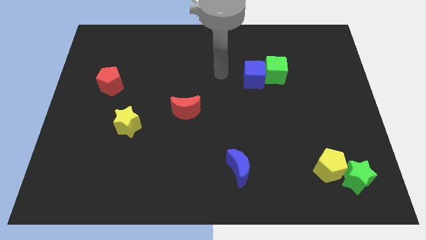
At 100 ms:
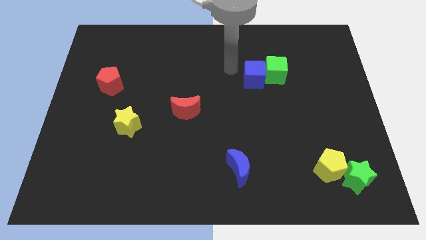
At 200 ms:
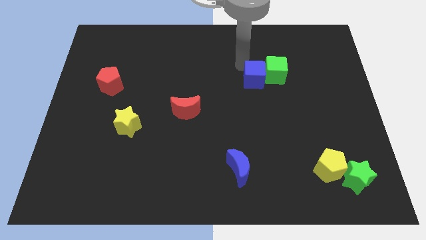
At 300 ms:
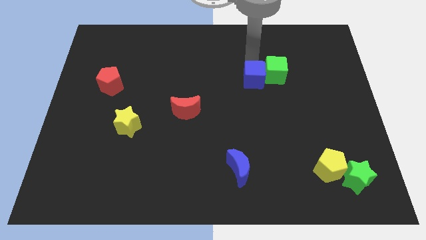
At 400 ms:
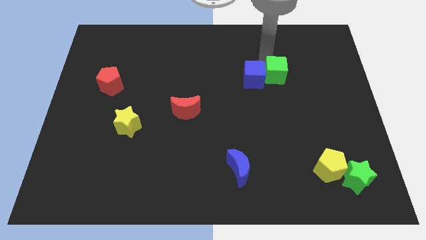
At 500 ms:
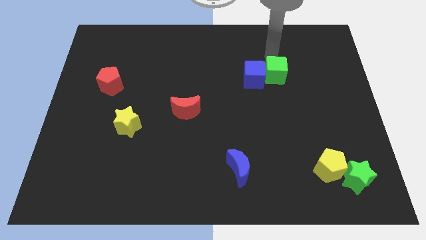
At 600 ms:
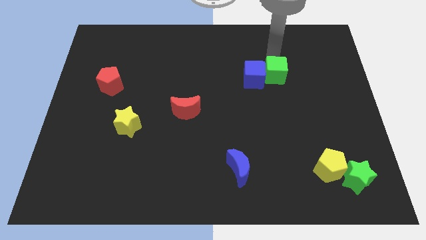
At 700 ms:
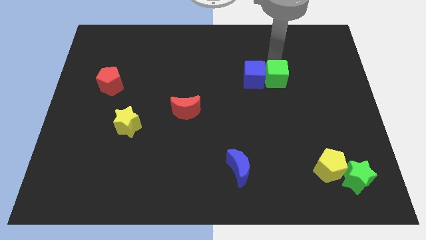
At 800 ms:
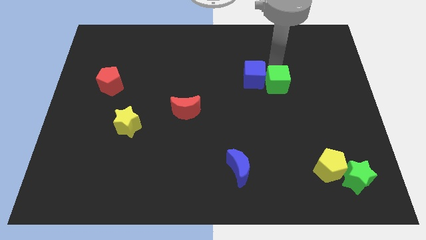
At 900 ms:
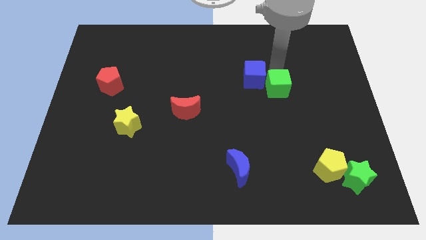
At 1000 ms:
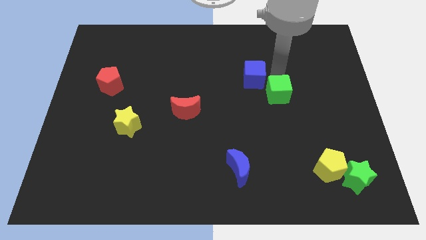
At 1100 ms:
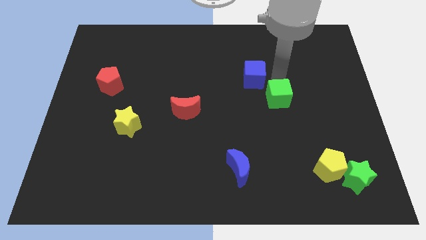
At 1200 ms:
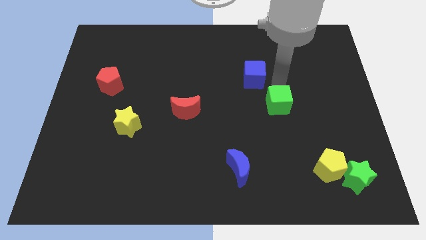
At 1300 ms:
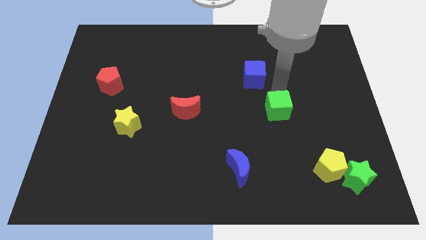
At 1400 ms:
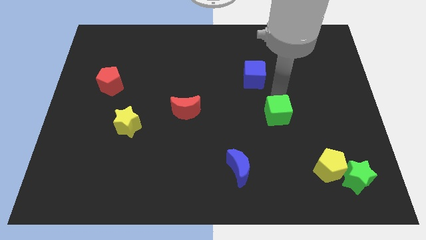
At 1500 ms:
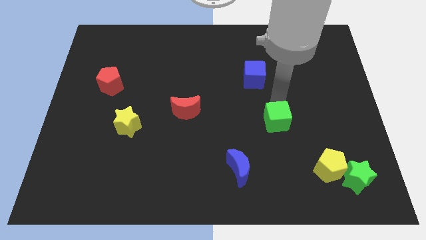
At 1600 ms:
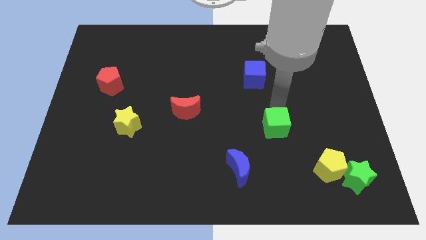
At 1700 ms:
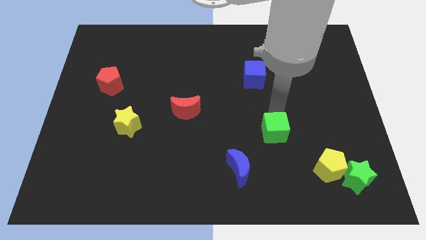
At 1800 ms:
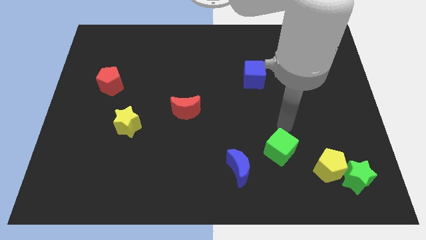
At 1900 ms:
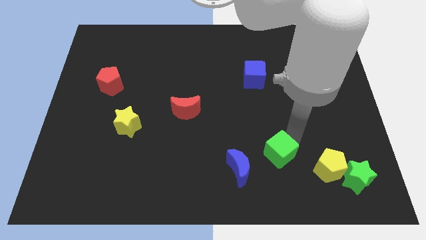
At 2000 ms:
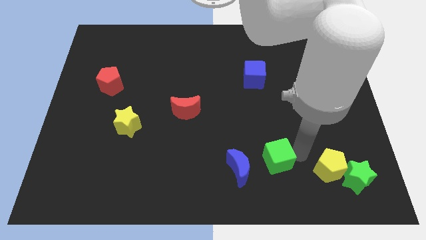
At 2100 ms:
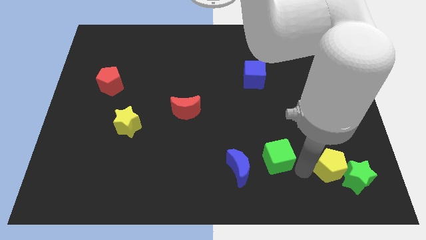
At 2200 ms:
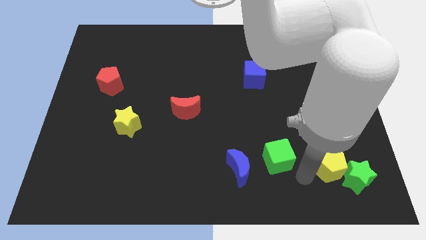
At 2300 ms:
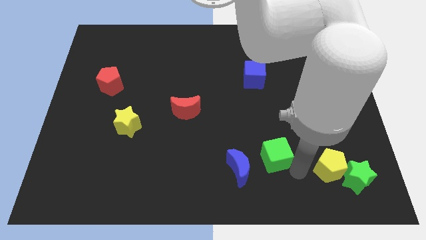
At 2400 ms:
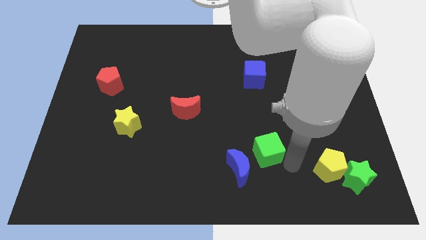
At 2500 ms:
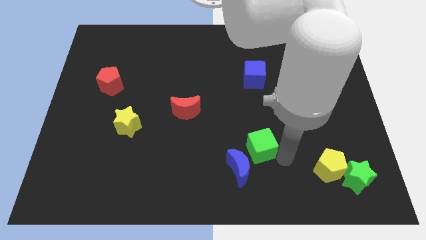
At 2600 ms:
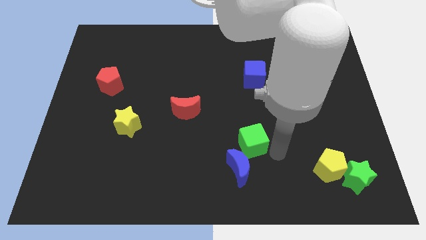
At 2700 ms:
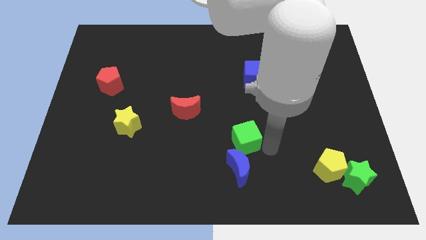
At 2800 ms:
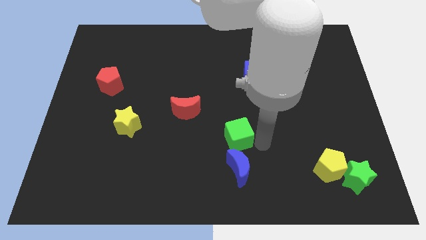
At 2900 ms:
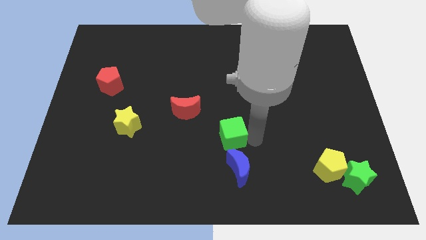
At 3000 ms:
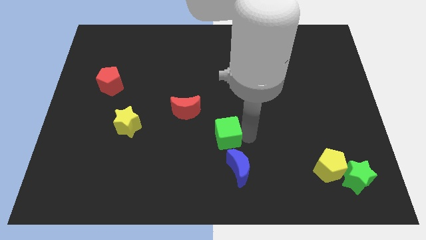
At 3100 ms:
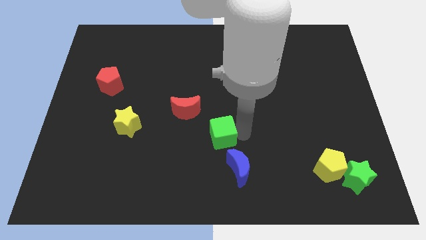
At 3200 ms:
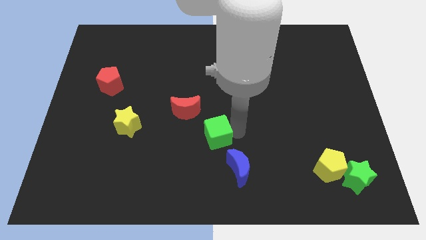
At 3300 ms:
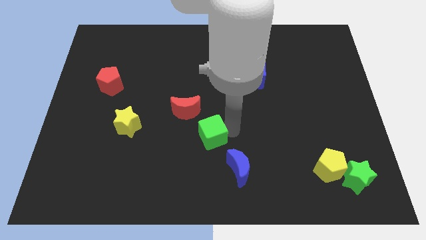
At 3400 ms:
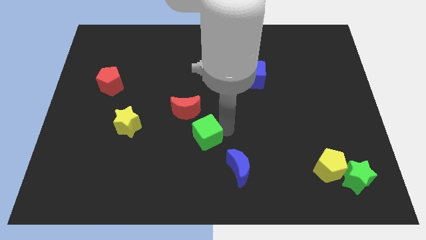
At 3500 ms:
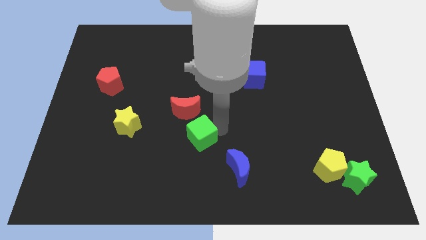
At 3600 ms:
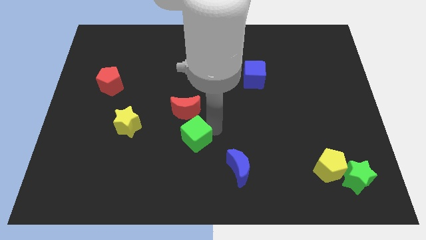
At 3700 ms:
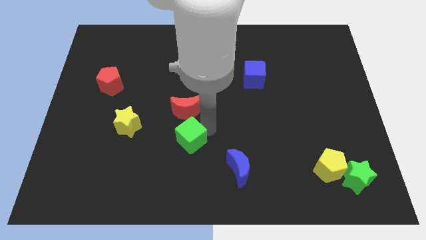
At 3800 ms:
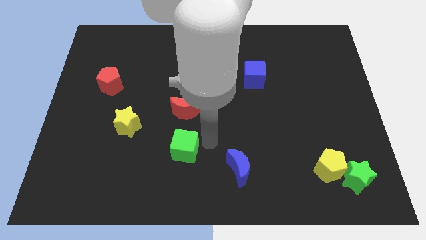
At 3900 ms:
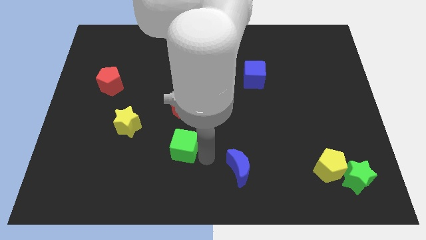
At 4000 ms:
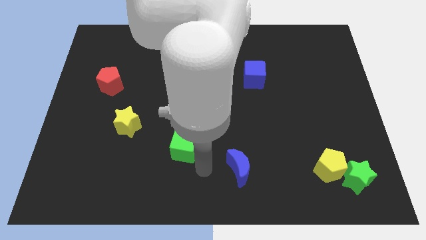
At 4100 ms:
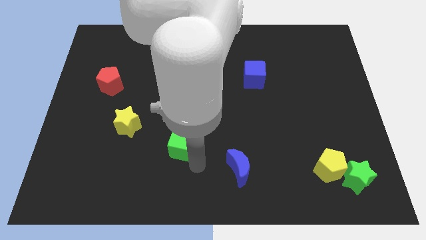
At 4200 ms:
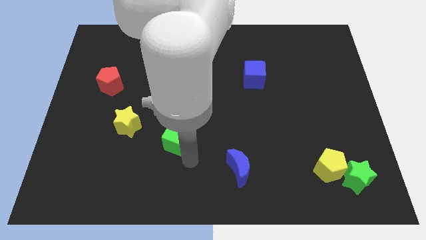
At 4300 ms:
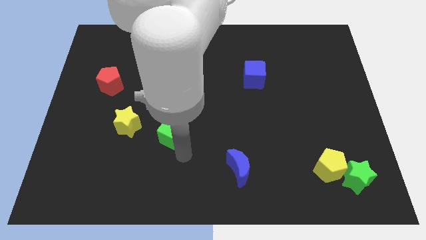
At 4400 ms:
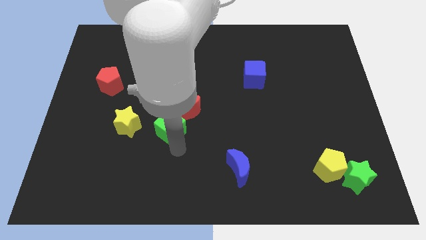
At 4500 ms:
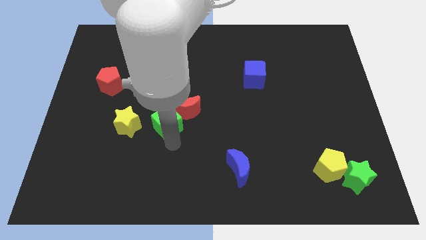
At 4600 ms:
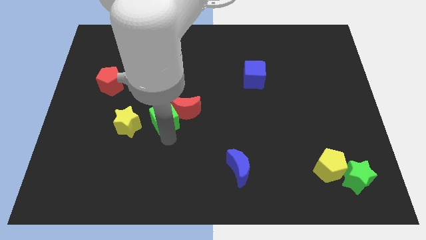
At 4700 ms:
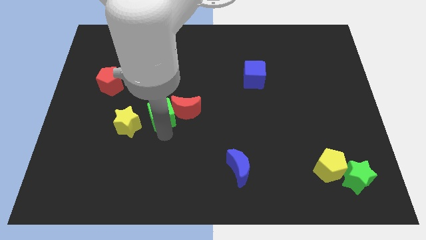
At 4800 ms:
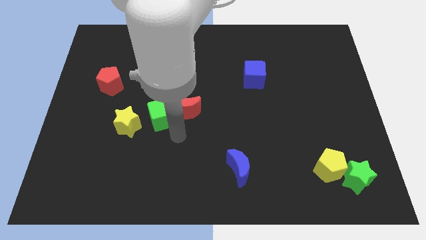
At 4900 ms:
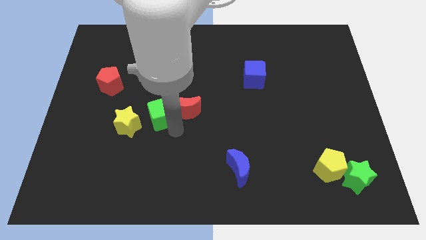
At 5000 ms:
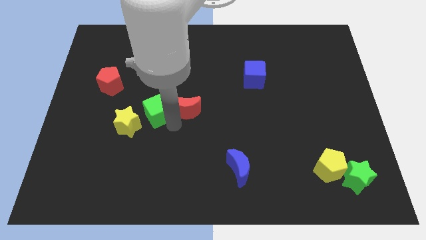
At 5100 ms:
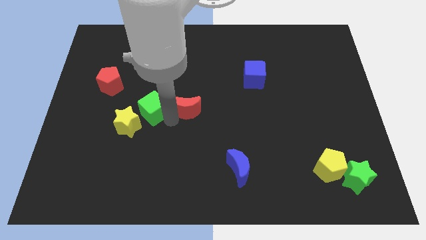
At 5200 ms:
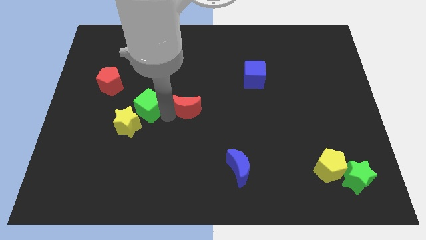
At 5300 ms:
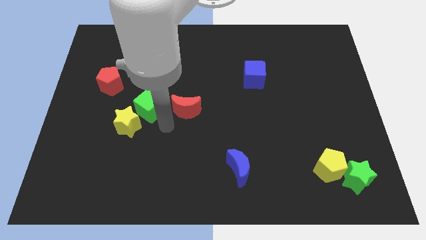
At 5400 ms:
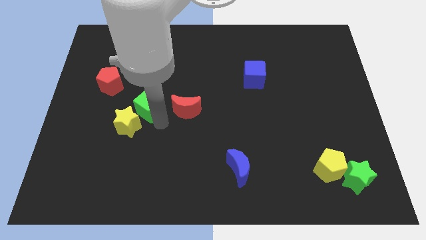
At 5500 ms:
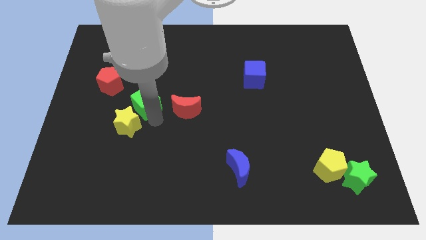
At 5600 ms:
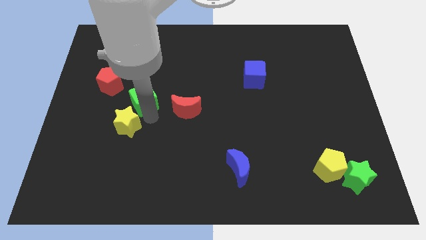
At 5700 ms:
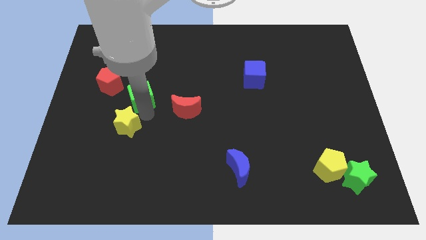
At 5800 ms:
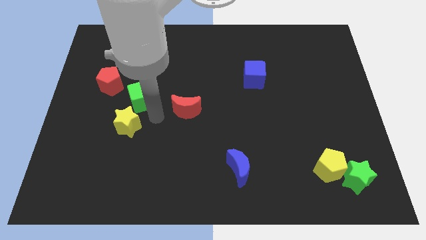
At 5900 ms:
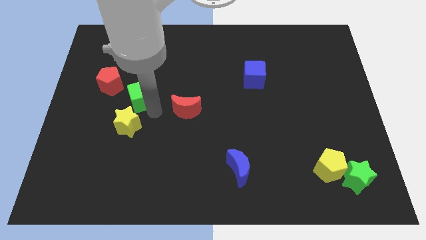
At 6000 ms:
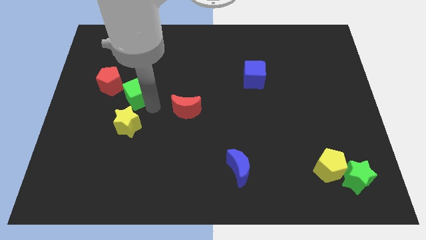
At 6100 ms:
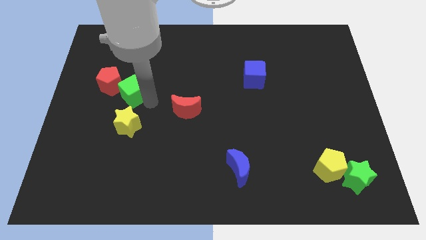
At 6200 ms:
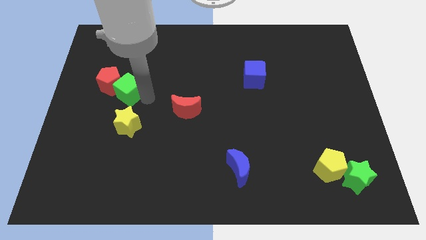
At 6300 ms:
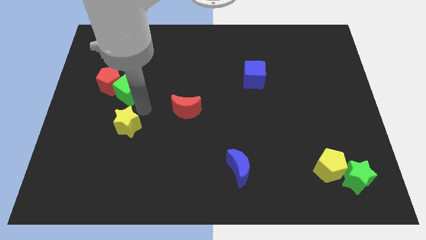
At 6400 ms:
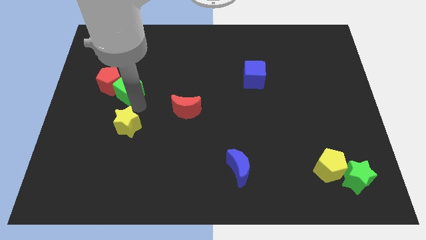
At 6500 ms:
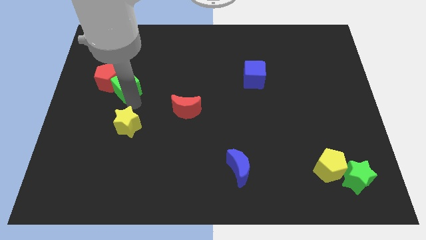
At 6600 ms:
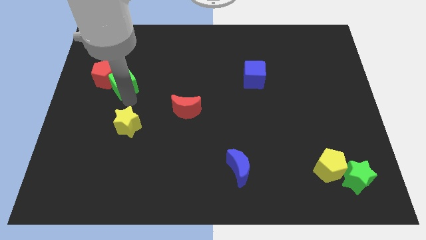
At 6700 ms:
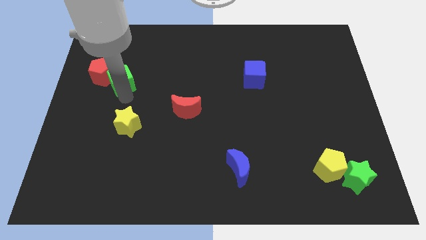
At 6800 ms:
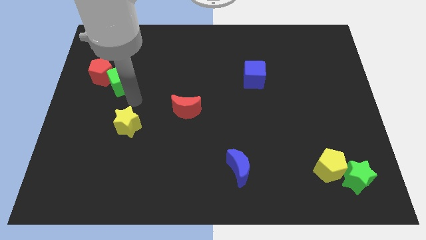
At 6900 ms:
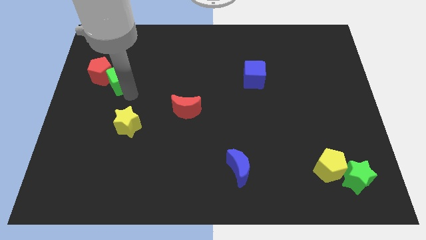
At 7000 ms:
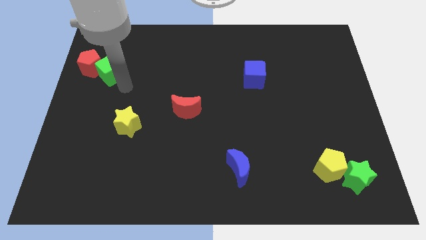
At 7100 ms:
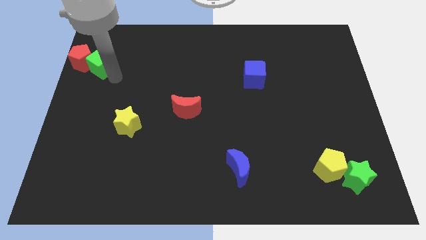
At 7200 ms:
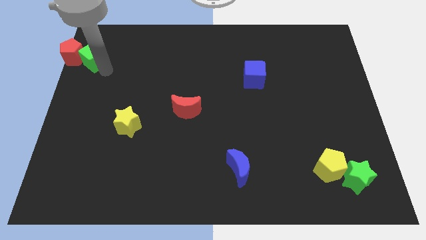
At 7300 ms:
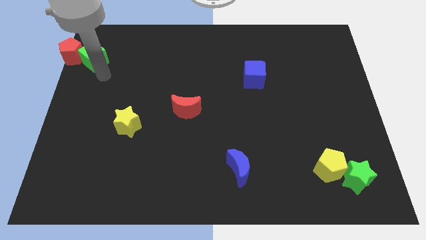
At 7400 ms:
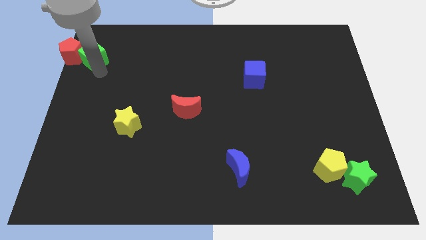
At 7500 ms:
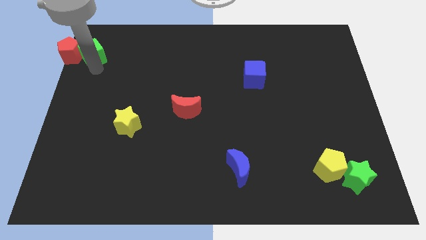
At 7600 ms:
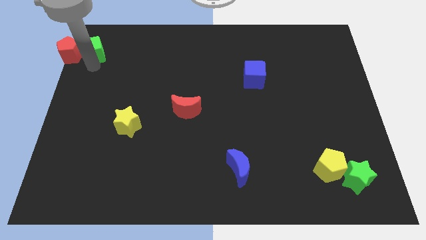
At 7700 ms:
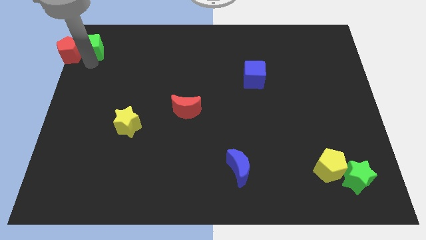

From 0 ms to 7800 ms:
push the green cube to the top left
